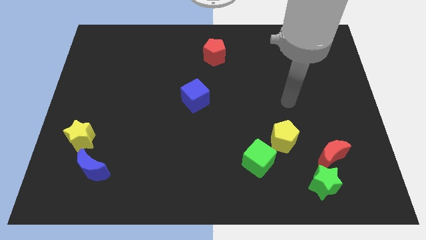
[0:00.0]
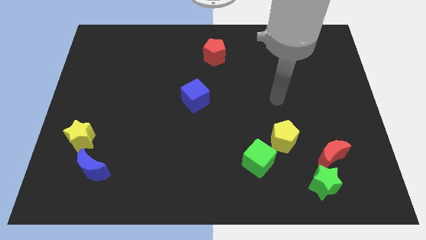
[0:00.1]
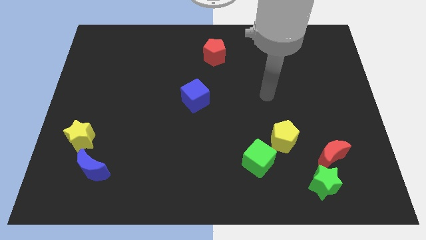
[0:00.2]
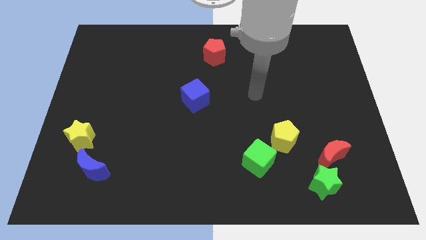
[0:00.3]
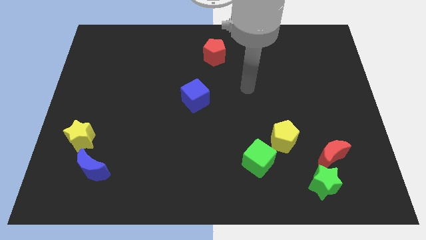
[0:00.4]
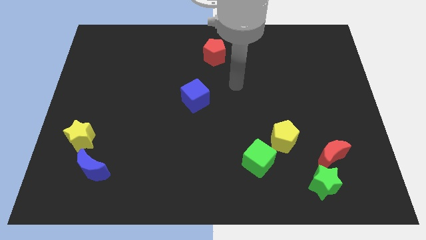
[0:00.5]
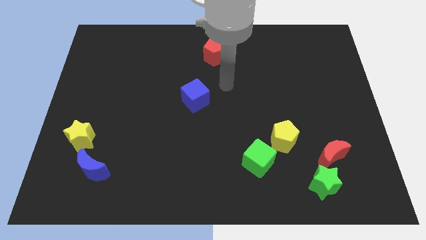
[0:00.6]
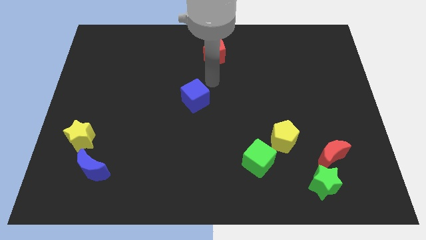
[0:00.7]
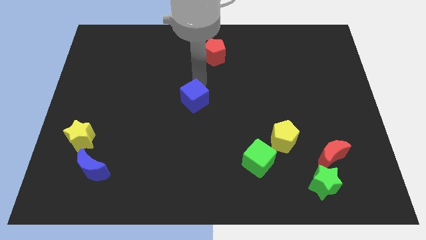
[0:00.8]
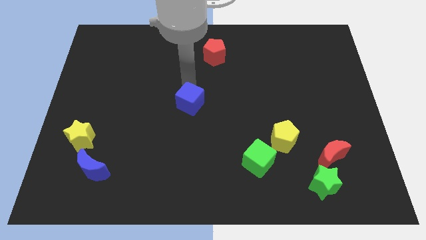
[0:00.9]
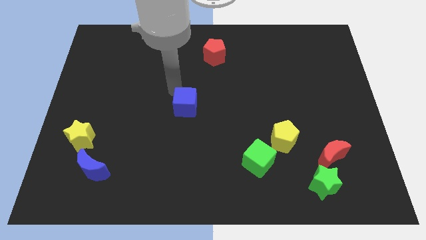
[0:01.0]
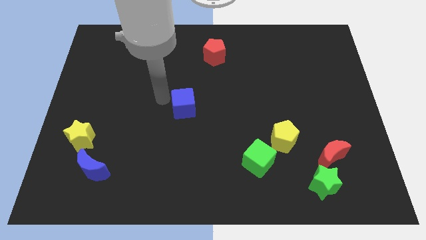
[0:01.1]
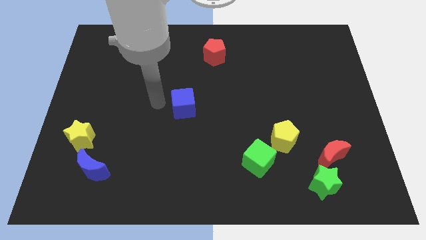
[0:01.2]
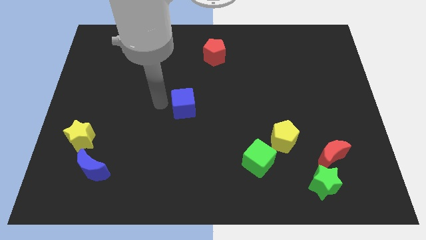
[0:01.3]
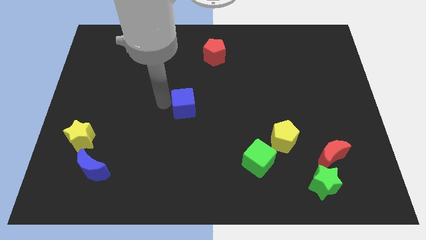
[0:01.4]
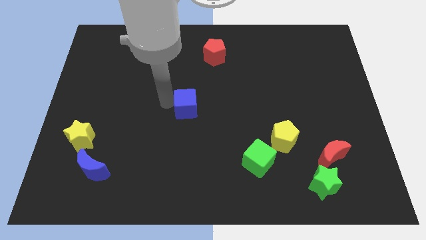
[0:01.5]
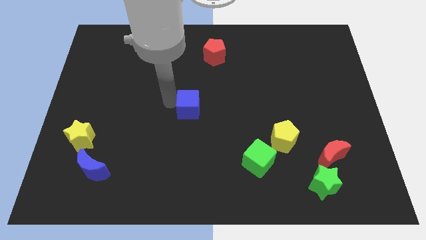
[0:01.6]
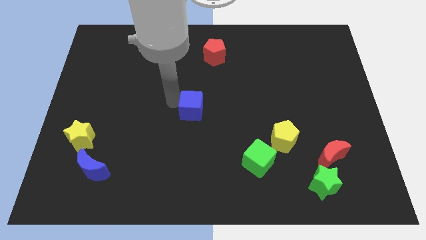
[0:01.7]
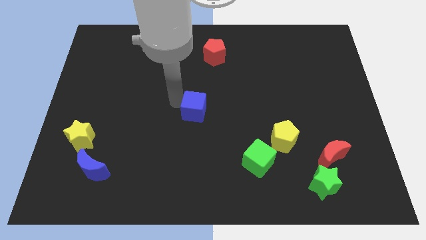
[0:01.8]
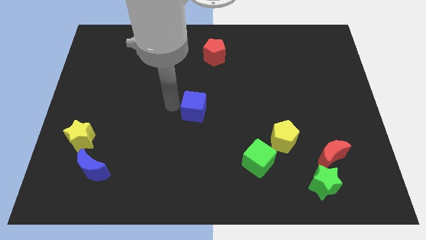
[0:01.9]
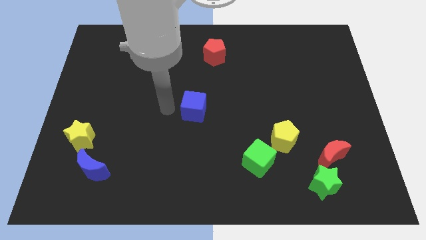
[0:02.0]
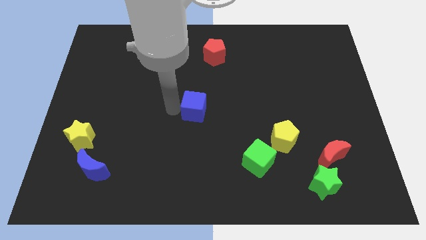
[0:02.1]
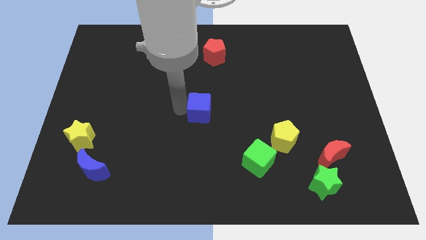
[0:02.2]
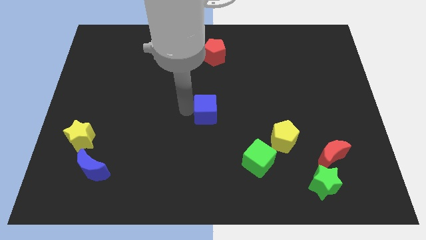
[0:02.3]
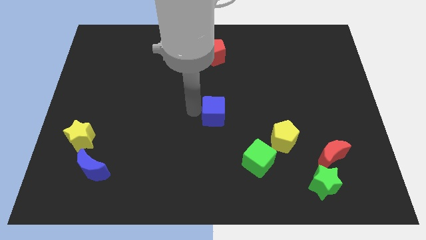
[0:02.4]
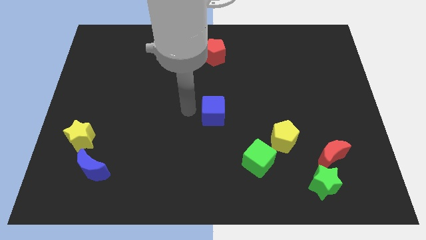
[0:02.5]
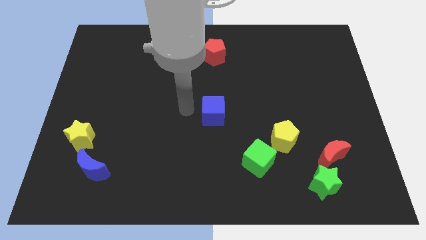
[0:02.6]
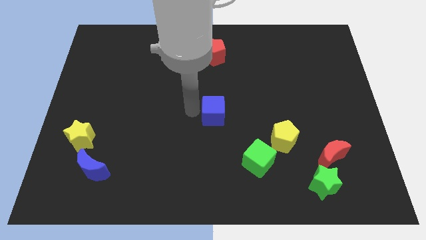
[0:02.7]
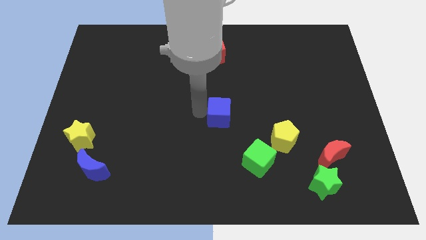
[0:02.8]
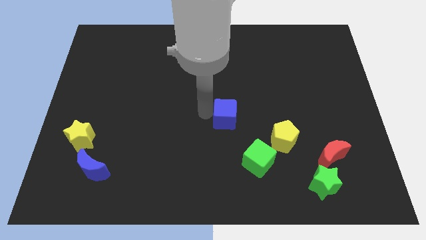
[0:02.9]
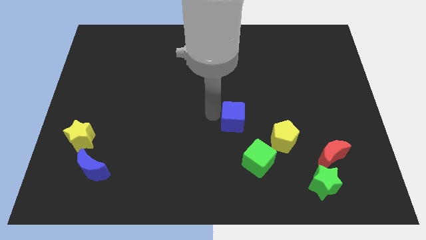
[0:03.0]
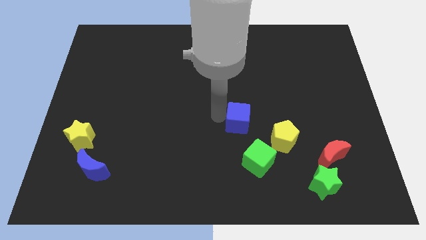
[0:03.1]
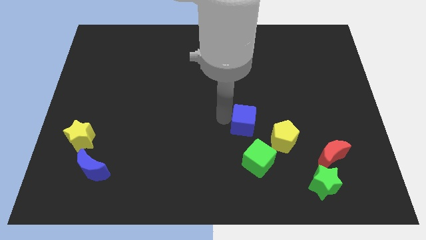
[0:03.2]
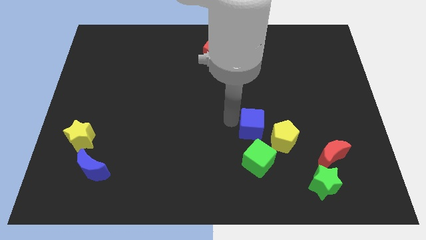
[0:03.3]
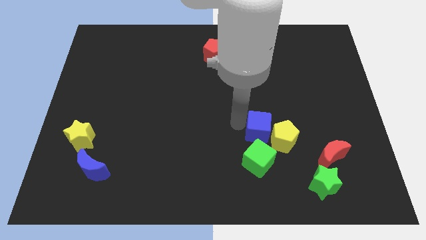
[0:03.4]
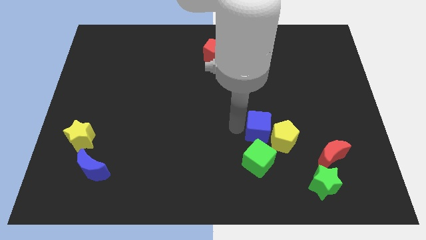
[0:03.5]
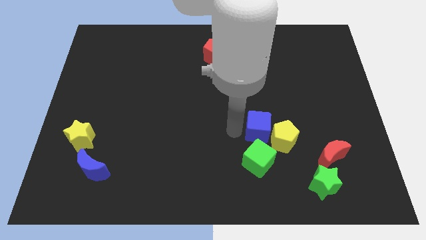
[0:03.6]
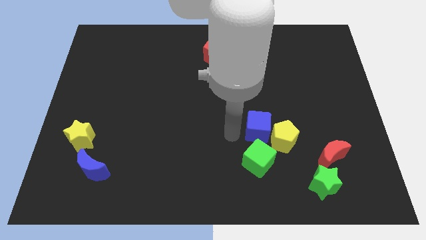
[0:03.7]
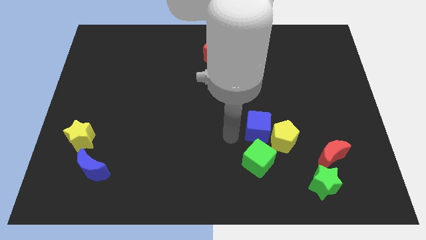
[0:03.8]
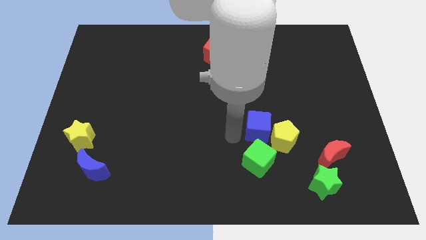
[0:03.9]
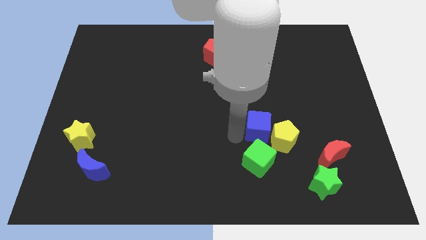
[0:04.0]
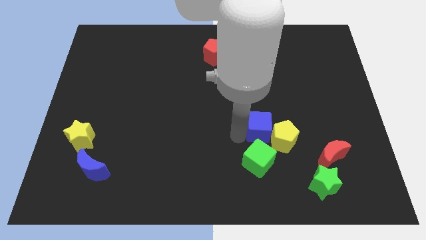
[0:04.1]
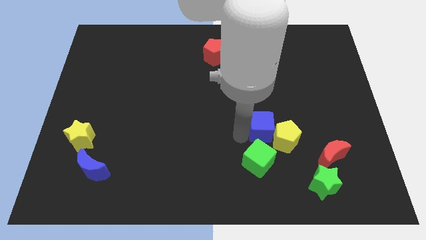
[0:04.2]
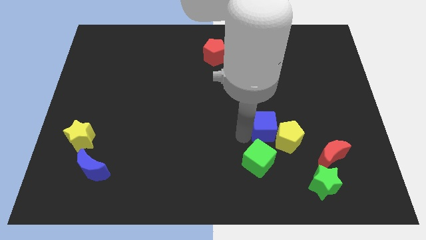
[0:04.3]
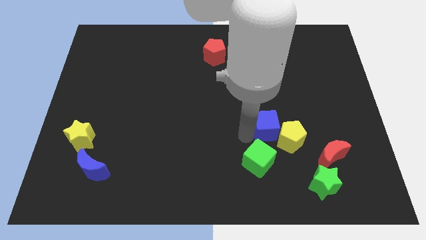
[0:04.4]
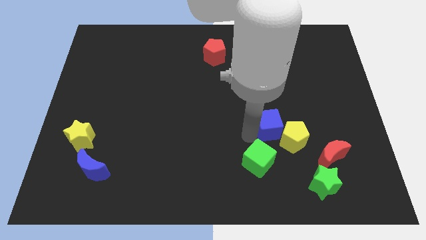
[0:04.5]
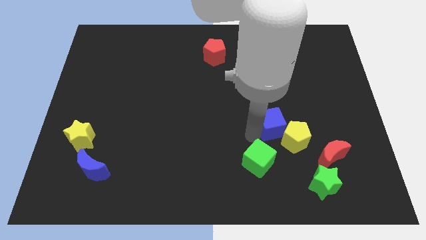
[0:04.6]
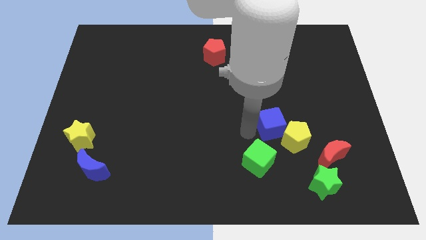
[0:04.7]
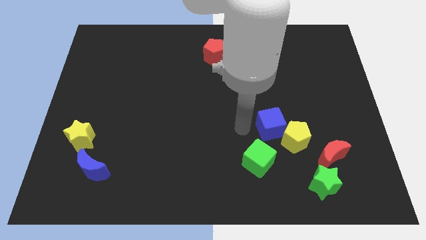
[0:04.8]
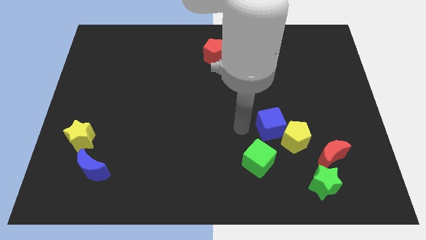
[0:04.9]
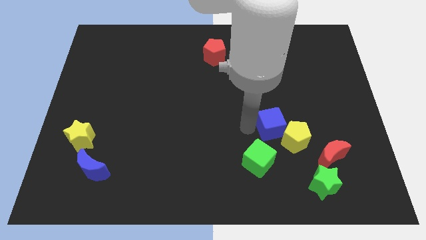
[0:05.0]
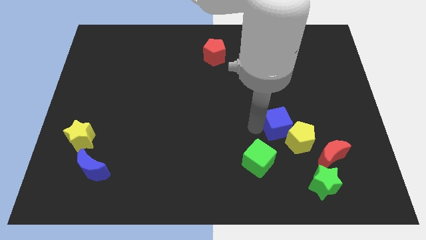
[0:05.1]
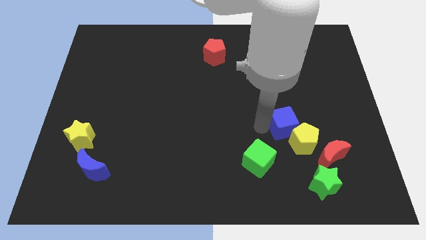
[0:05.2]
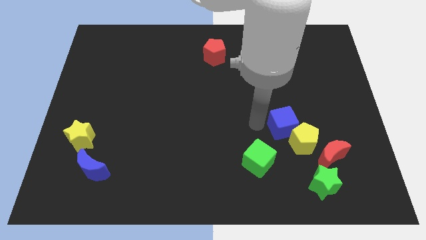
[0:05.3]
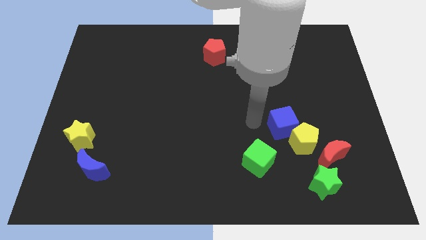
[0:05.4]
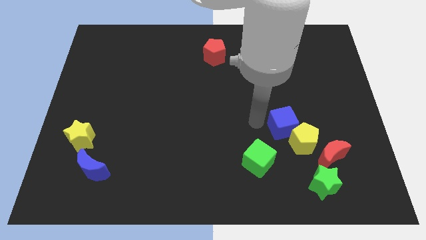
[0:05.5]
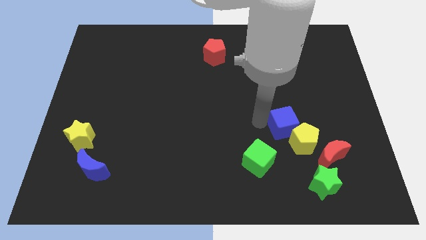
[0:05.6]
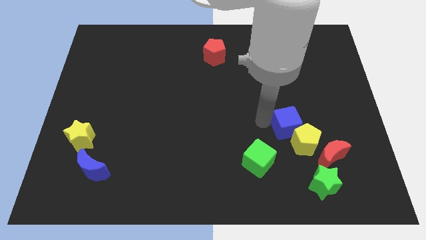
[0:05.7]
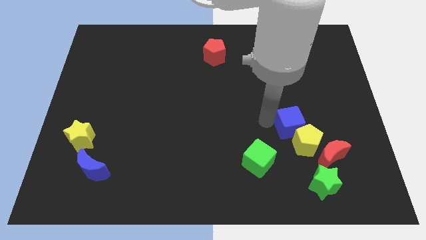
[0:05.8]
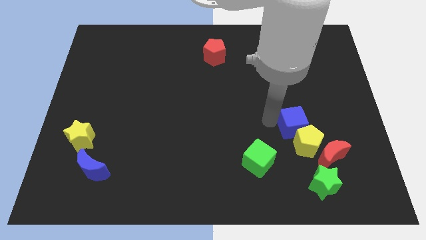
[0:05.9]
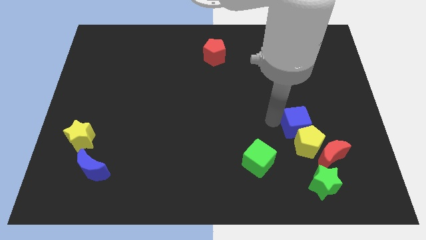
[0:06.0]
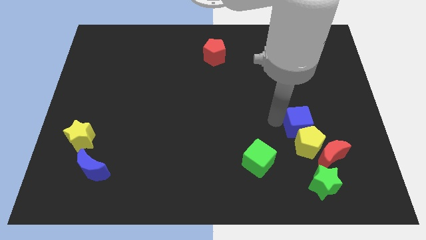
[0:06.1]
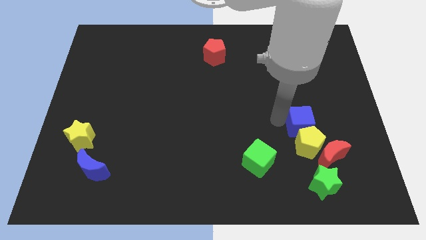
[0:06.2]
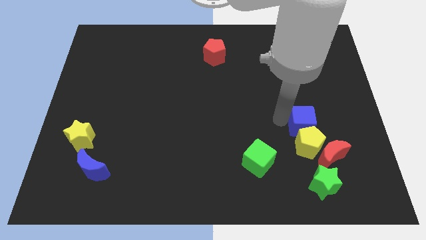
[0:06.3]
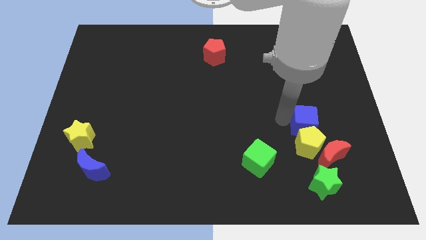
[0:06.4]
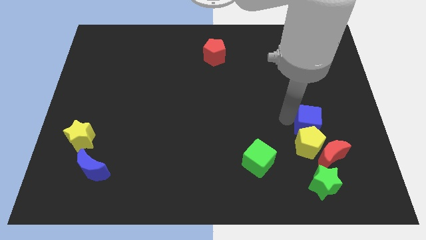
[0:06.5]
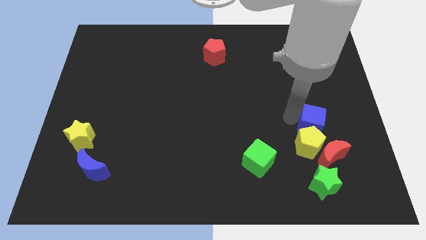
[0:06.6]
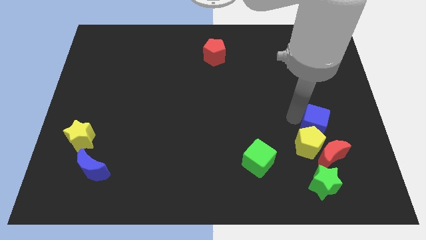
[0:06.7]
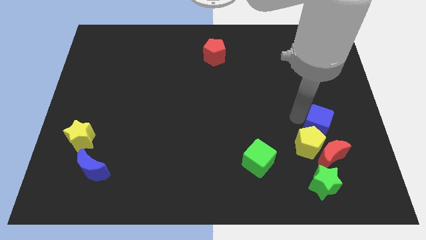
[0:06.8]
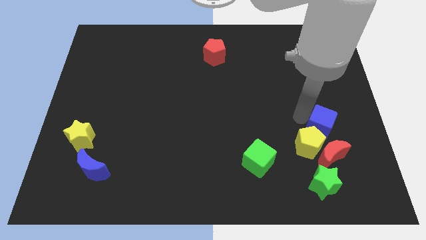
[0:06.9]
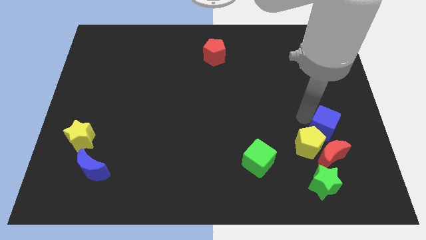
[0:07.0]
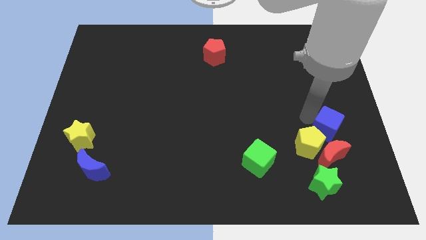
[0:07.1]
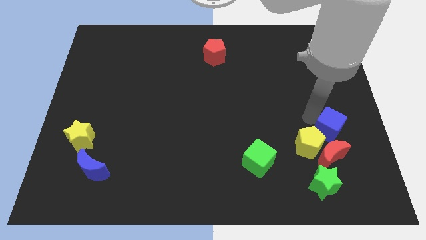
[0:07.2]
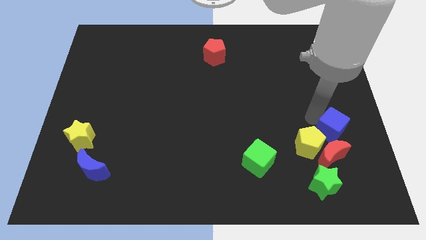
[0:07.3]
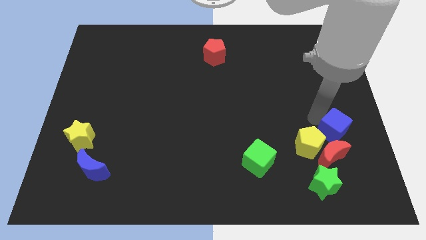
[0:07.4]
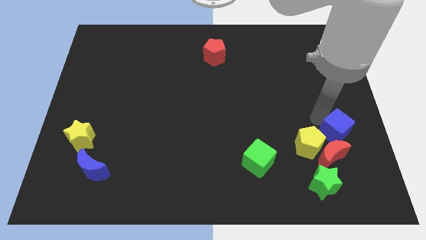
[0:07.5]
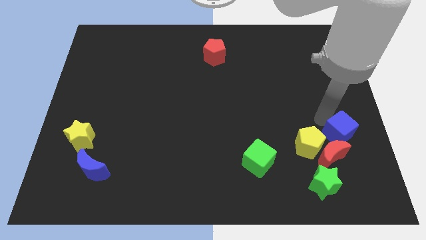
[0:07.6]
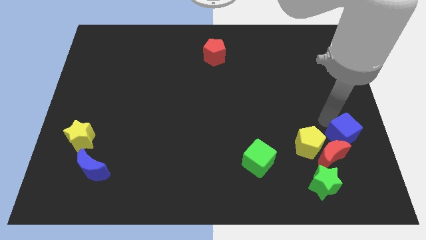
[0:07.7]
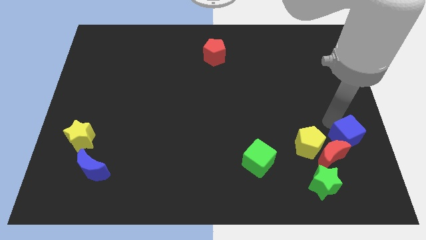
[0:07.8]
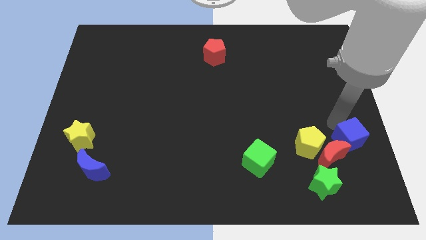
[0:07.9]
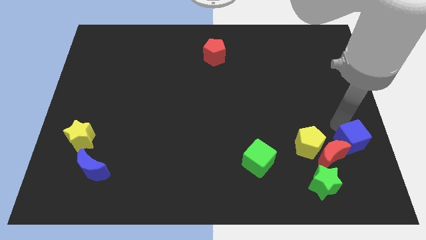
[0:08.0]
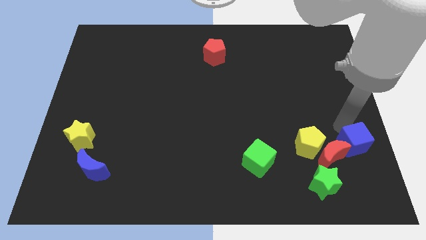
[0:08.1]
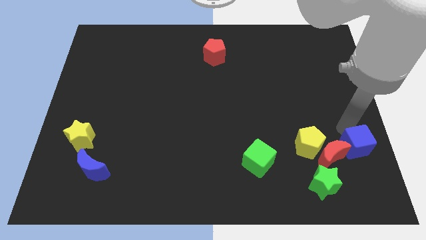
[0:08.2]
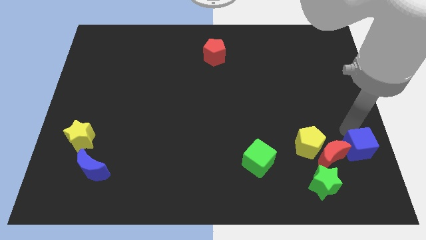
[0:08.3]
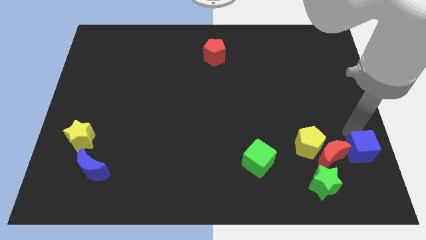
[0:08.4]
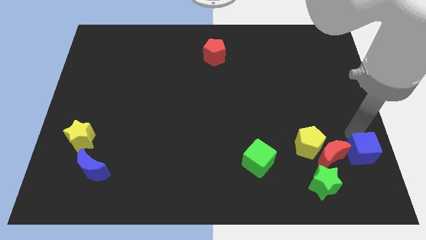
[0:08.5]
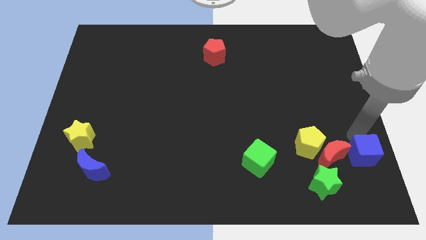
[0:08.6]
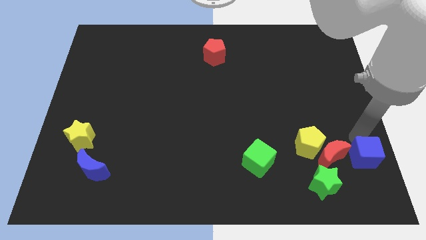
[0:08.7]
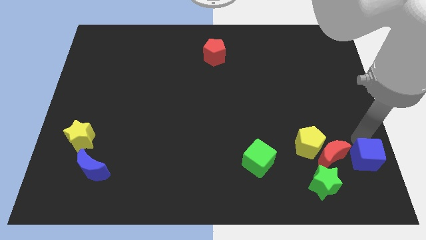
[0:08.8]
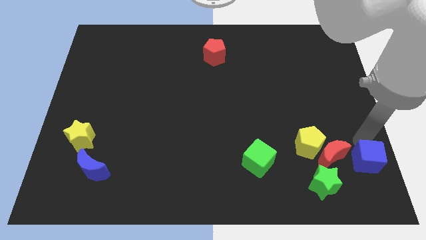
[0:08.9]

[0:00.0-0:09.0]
push the blue cube to the bottom right
